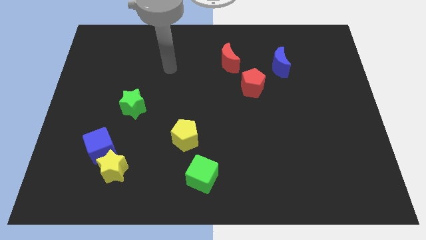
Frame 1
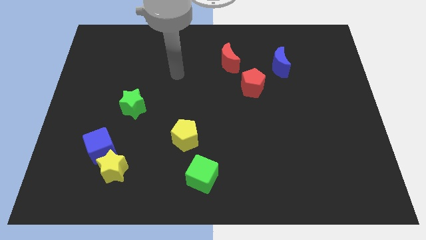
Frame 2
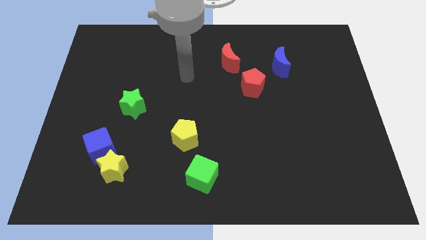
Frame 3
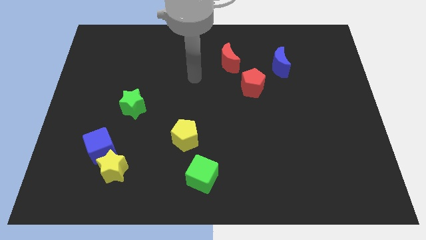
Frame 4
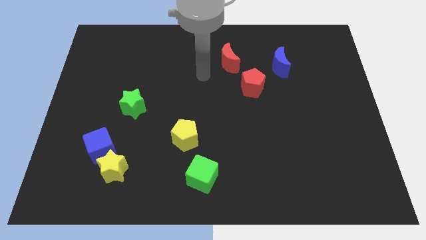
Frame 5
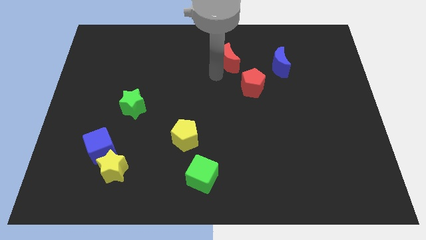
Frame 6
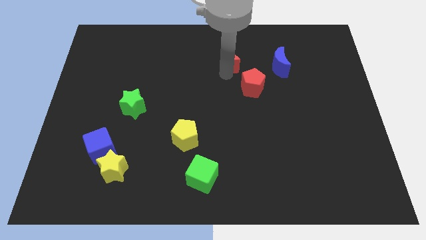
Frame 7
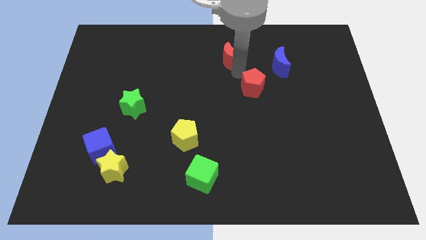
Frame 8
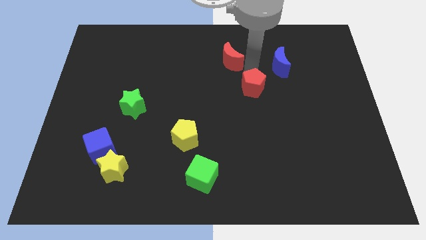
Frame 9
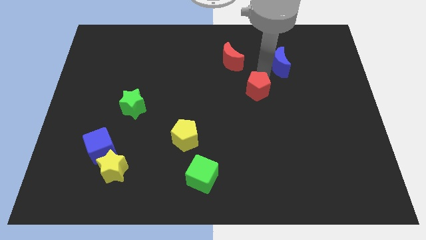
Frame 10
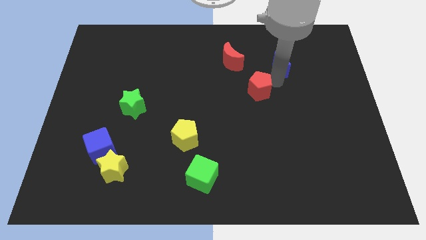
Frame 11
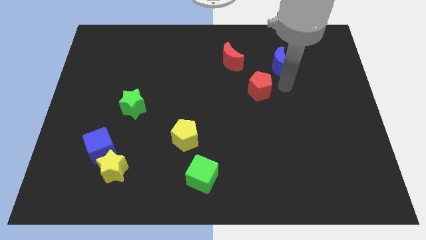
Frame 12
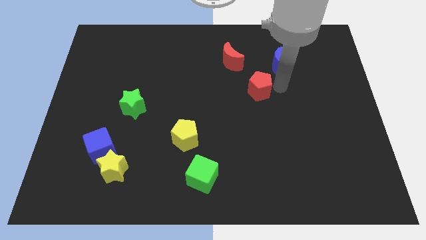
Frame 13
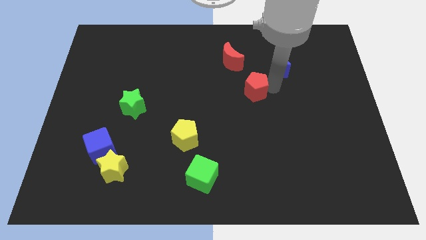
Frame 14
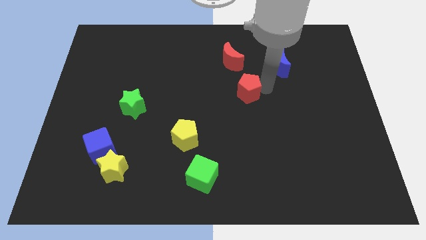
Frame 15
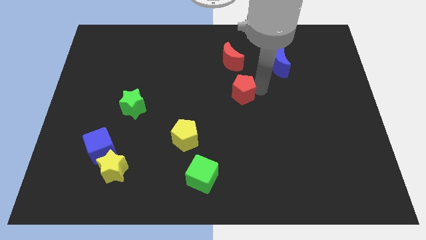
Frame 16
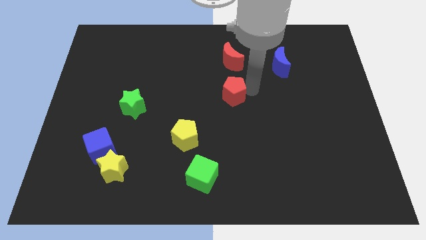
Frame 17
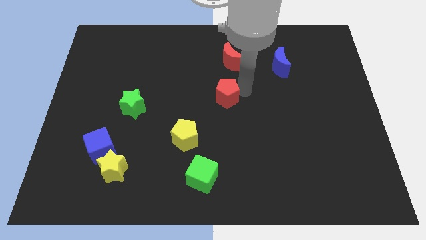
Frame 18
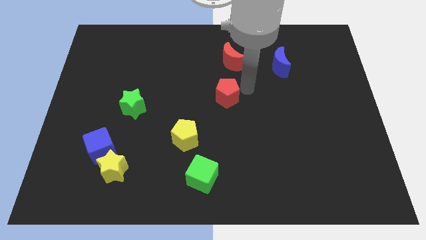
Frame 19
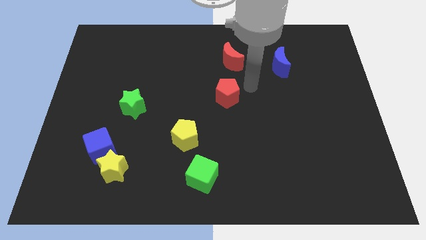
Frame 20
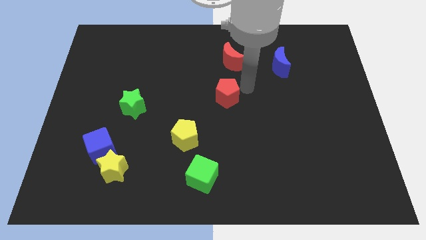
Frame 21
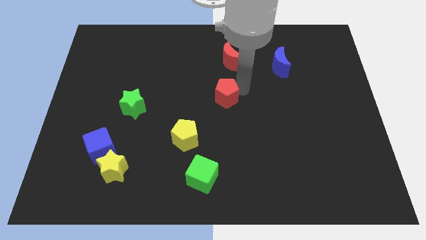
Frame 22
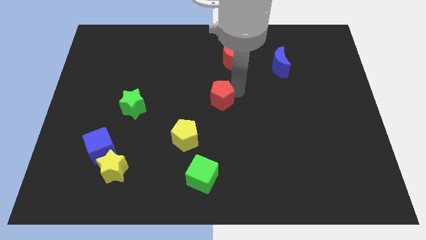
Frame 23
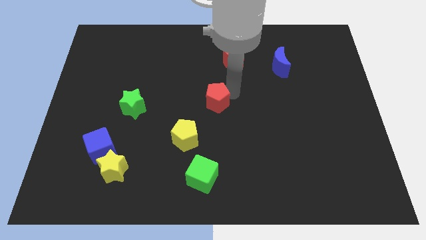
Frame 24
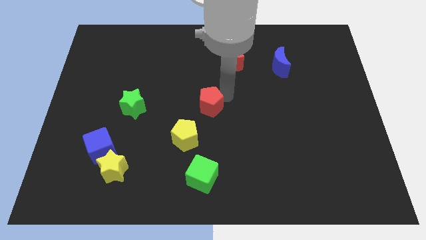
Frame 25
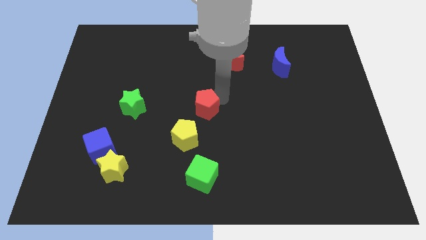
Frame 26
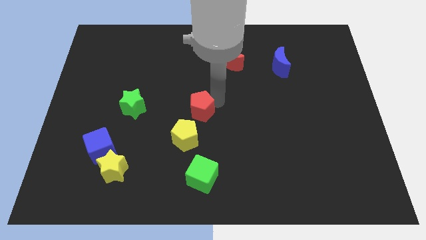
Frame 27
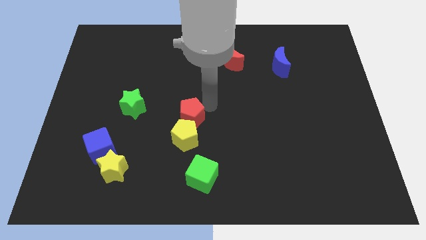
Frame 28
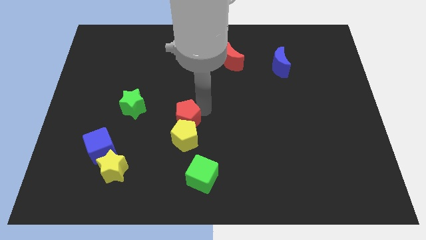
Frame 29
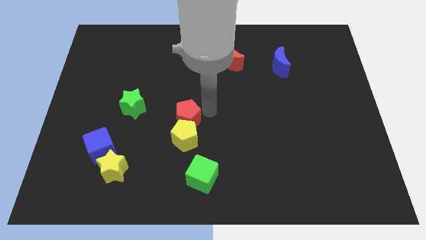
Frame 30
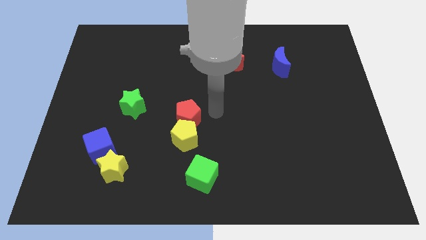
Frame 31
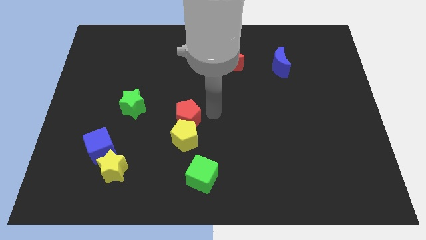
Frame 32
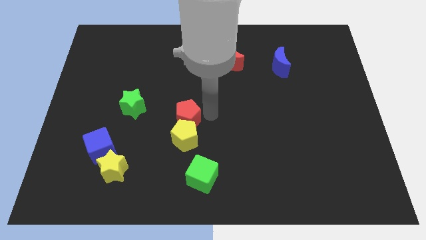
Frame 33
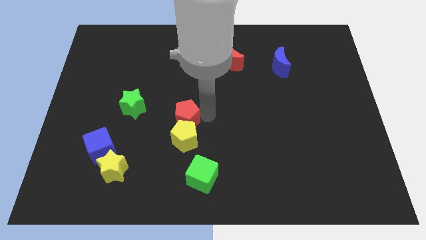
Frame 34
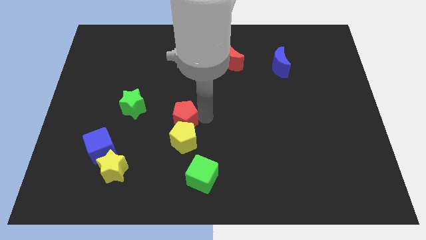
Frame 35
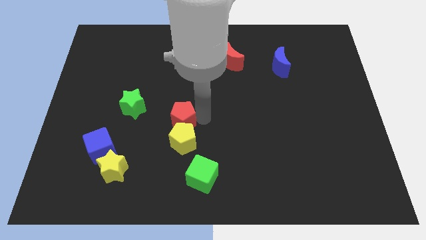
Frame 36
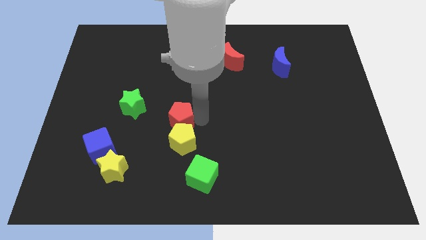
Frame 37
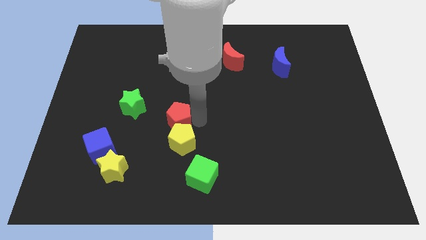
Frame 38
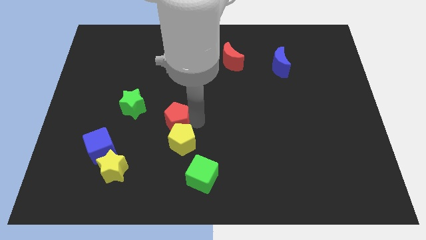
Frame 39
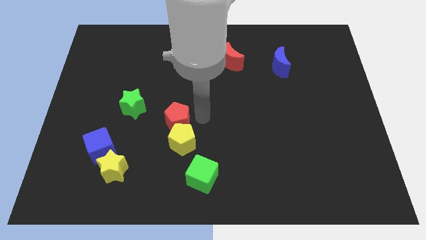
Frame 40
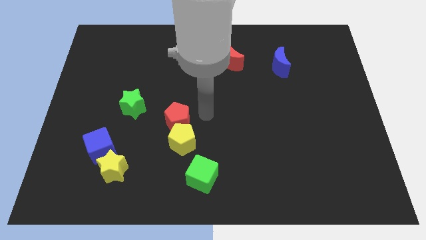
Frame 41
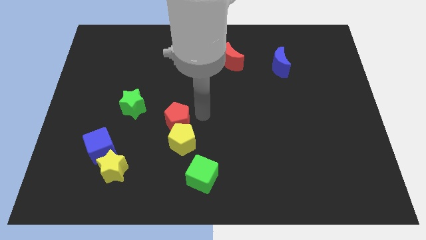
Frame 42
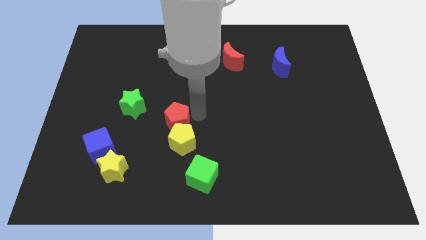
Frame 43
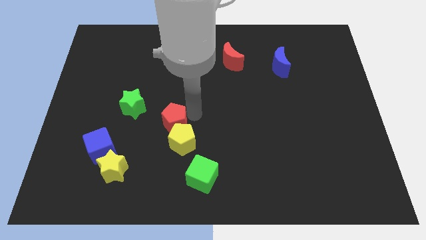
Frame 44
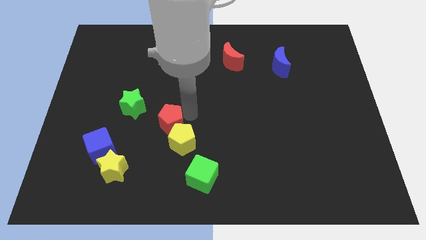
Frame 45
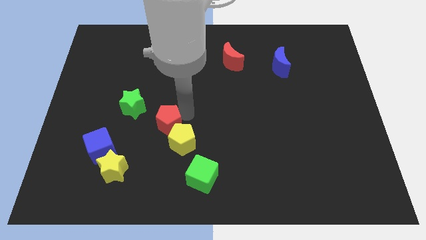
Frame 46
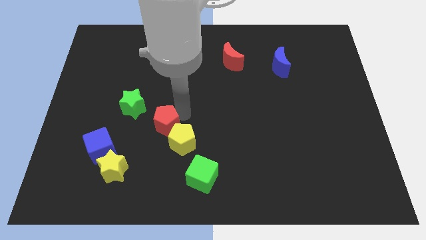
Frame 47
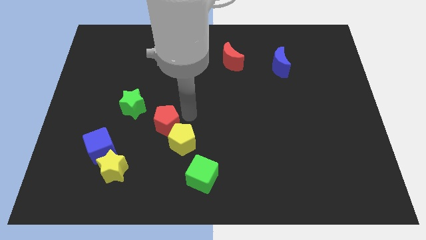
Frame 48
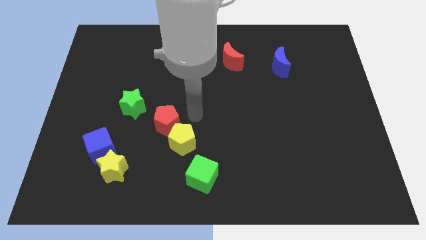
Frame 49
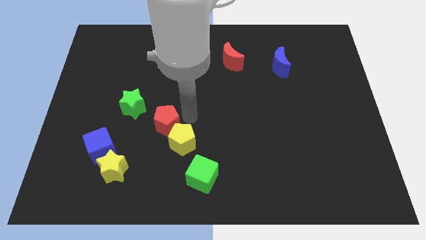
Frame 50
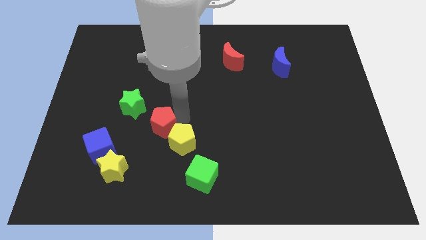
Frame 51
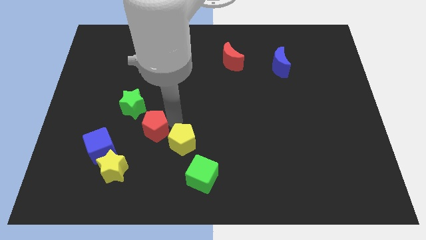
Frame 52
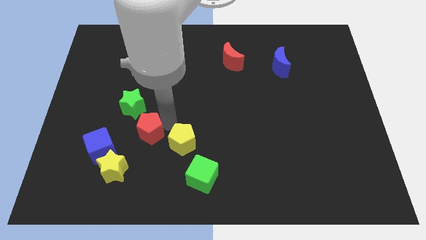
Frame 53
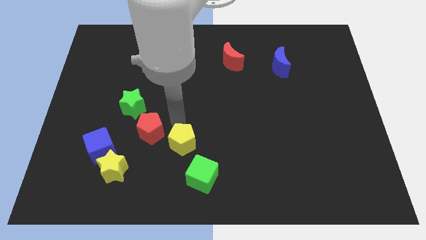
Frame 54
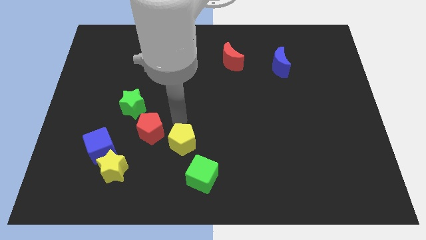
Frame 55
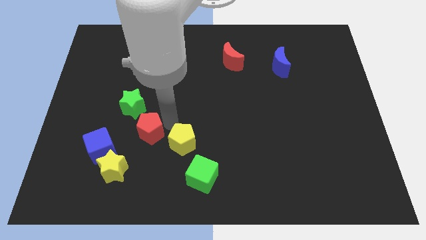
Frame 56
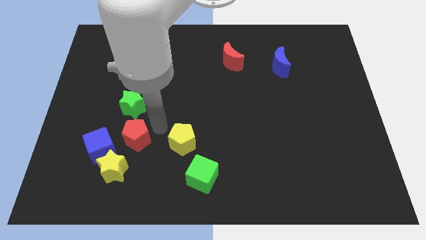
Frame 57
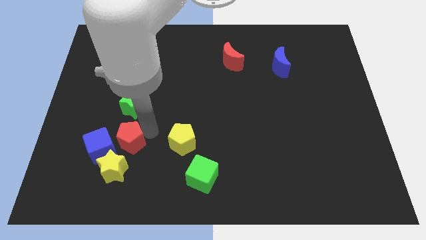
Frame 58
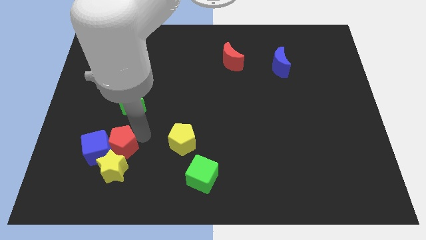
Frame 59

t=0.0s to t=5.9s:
put the red pentagon close to the blue cube

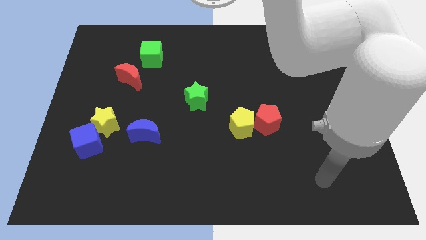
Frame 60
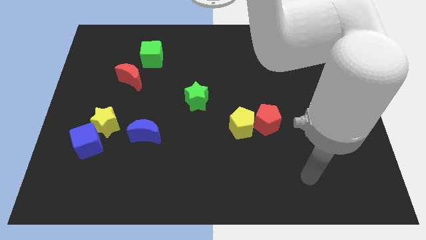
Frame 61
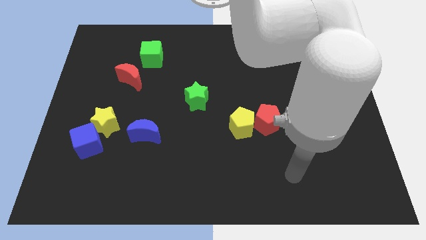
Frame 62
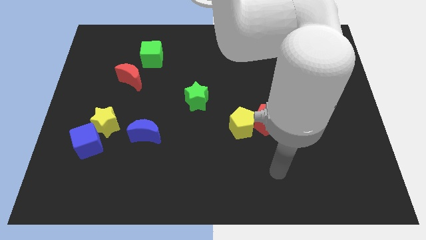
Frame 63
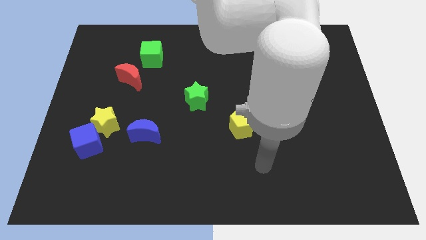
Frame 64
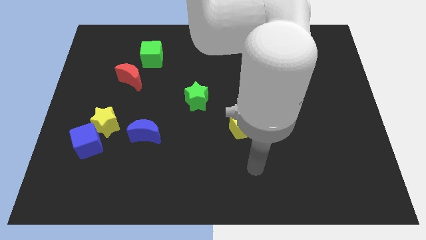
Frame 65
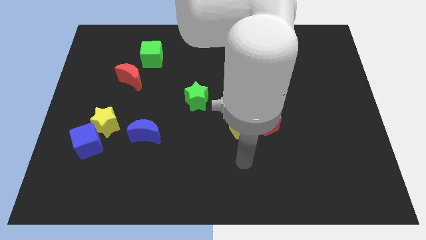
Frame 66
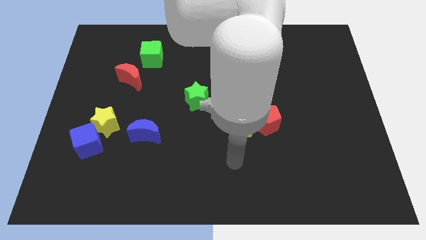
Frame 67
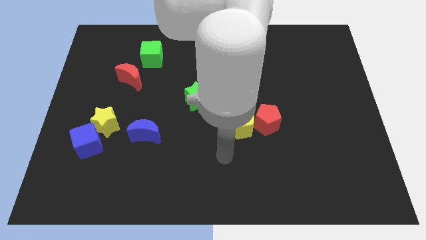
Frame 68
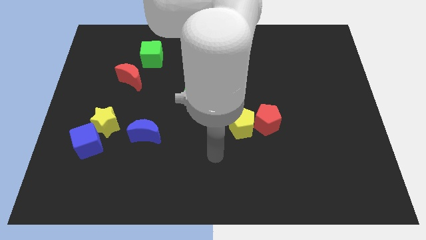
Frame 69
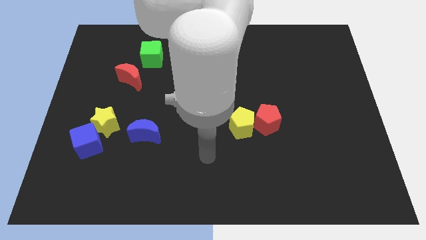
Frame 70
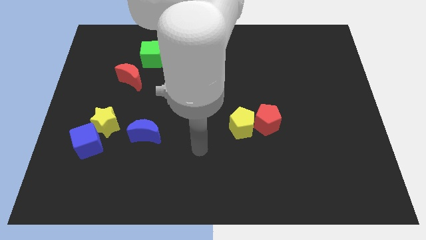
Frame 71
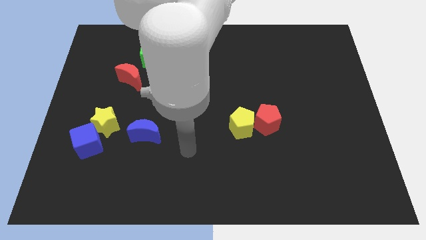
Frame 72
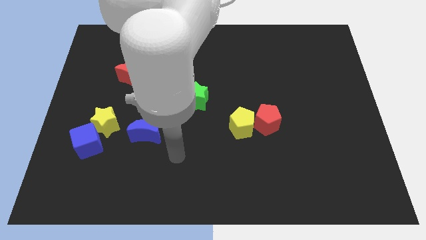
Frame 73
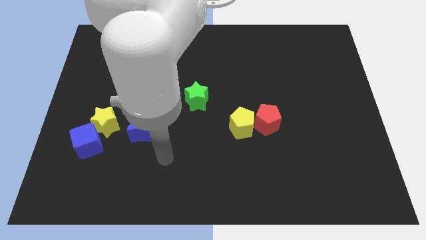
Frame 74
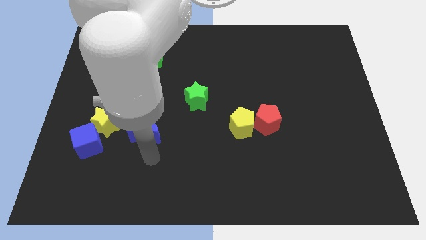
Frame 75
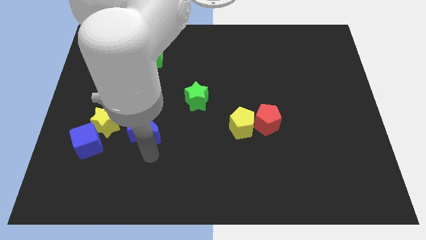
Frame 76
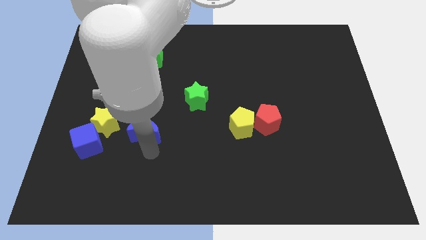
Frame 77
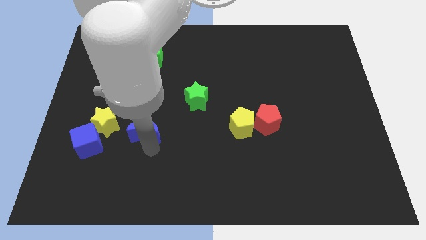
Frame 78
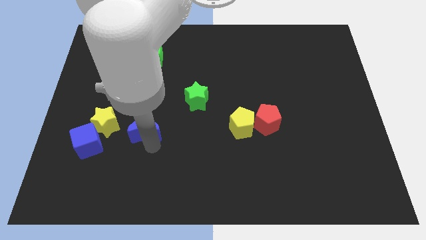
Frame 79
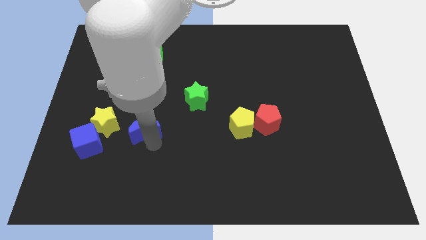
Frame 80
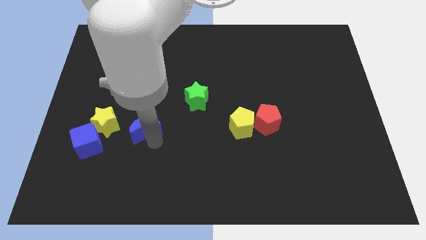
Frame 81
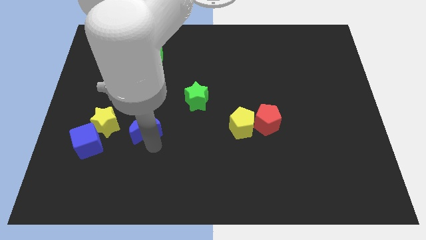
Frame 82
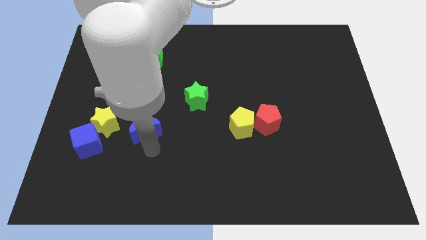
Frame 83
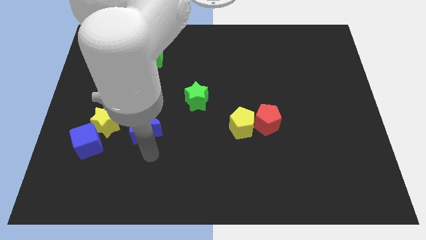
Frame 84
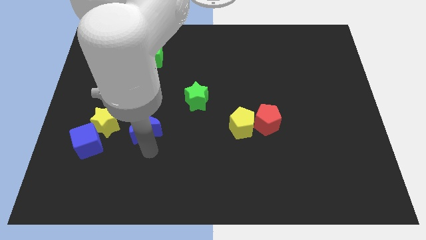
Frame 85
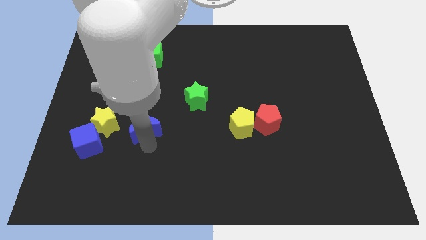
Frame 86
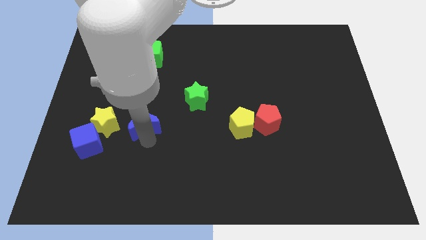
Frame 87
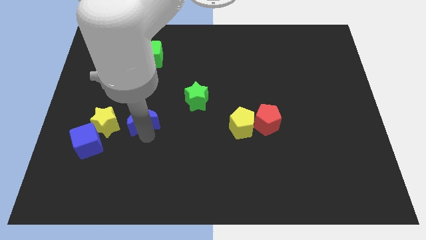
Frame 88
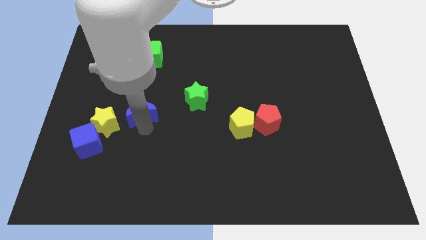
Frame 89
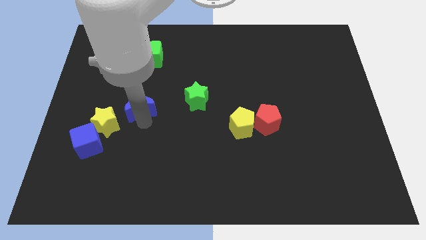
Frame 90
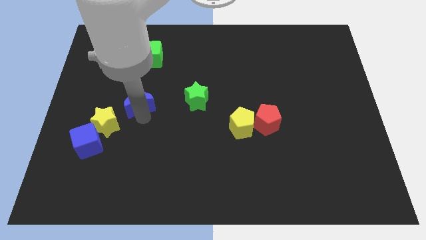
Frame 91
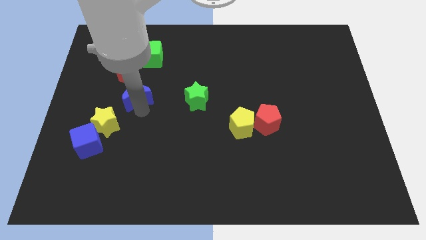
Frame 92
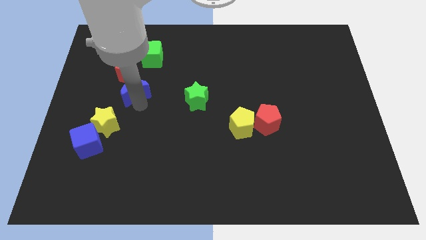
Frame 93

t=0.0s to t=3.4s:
move the blue moon to the red moon
